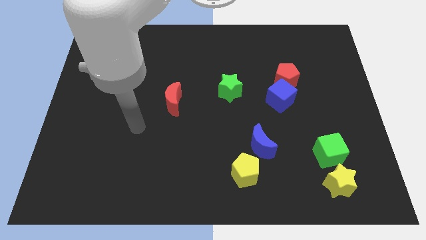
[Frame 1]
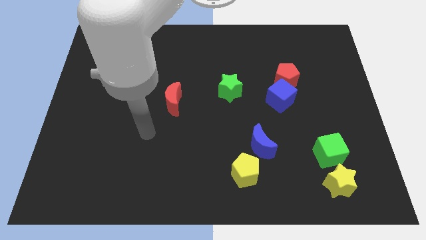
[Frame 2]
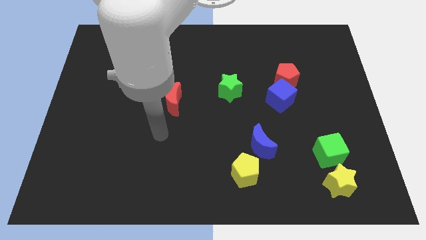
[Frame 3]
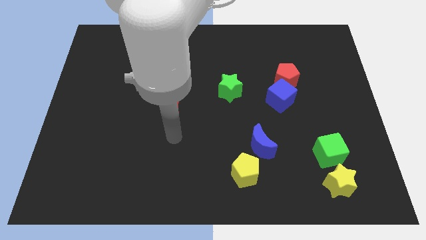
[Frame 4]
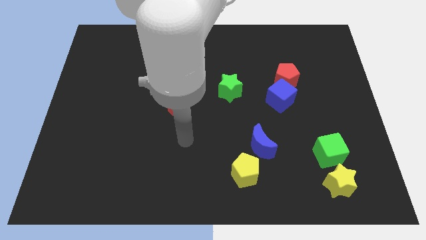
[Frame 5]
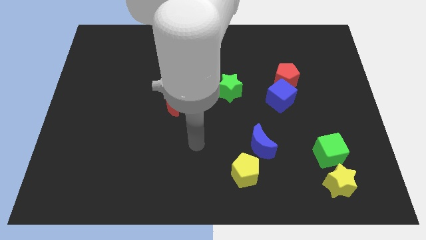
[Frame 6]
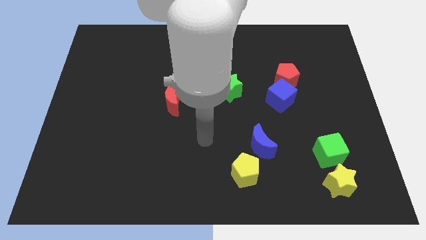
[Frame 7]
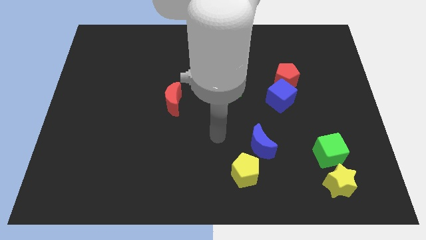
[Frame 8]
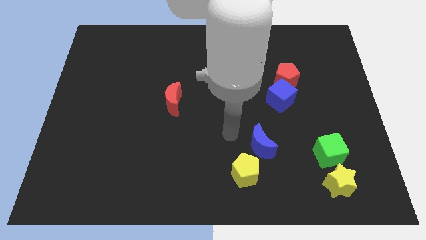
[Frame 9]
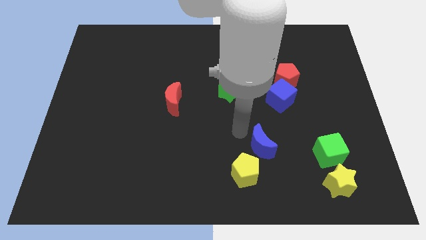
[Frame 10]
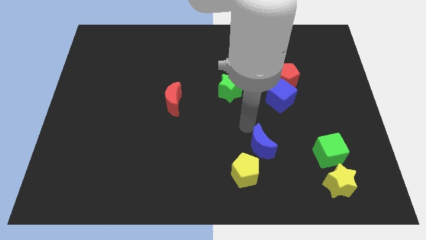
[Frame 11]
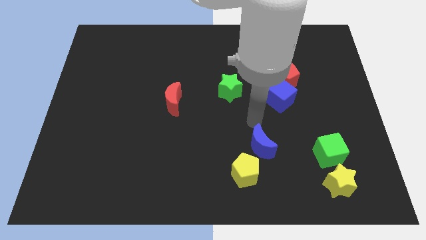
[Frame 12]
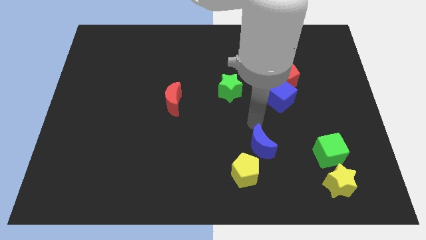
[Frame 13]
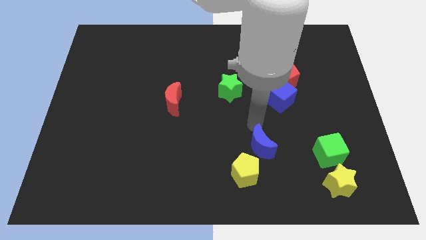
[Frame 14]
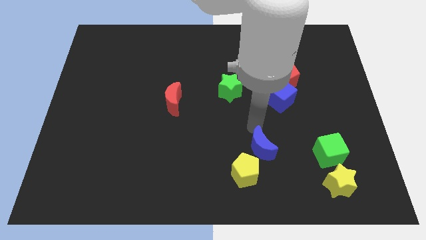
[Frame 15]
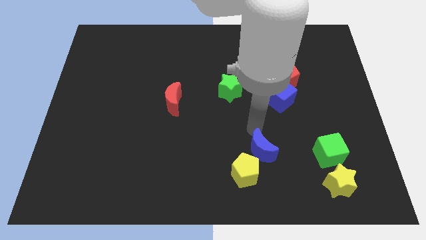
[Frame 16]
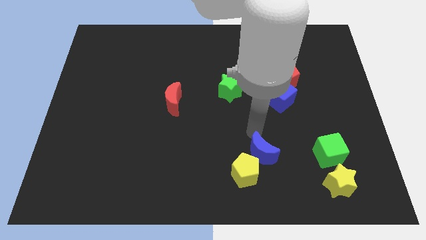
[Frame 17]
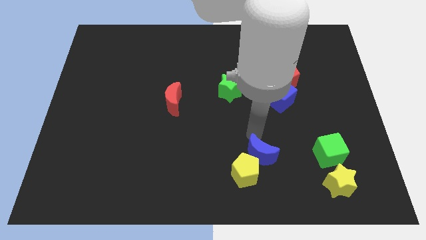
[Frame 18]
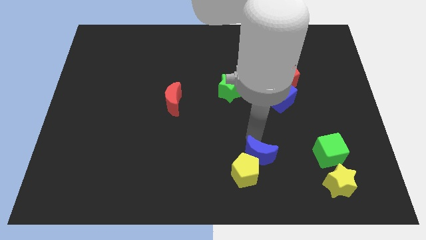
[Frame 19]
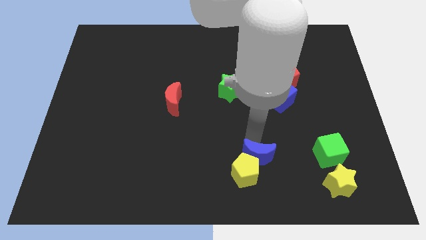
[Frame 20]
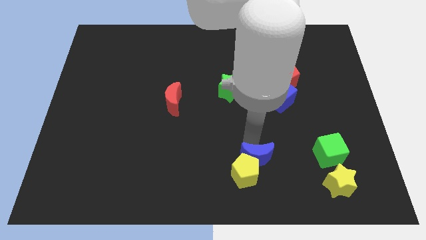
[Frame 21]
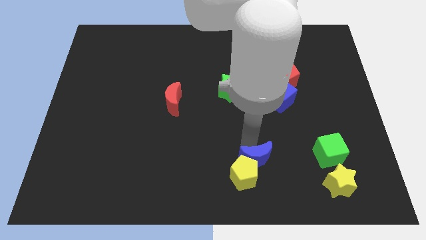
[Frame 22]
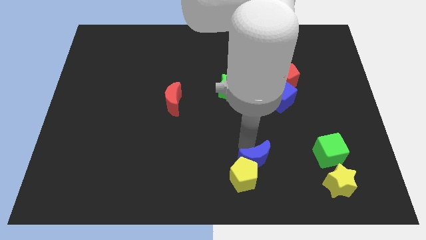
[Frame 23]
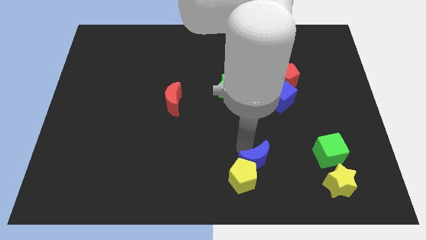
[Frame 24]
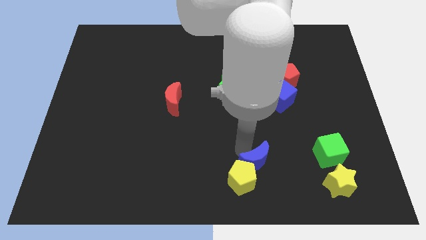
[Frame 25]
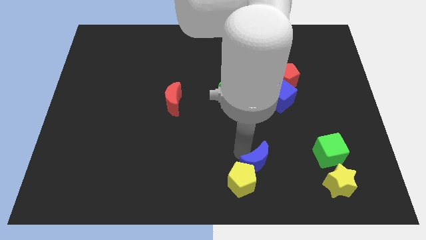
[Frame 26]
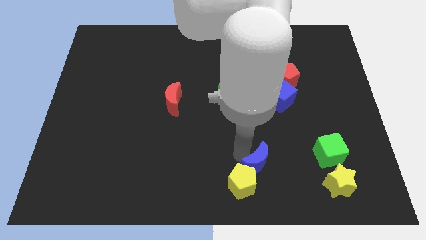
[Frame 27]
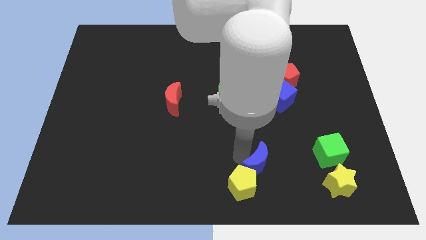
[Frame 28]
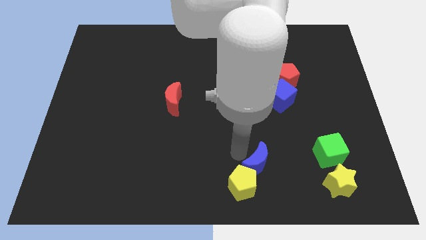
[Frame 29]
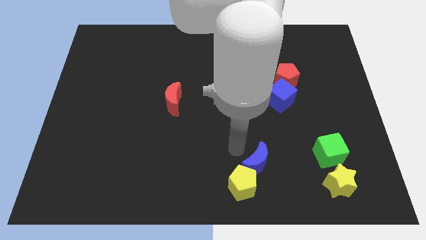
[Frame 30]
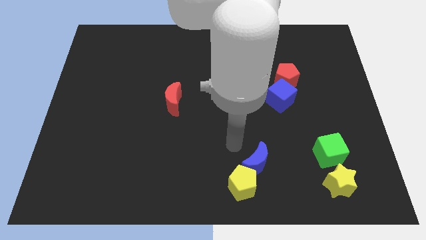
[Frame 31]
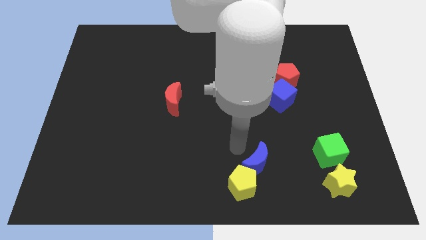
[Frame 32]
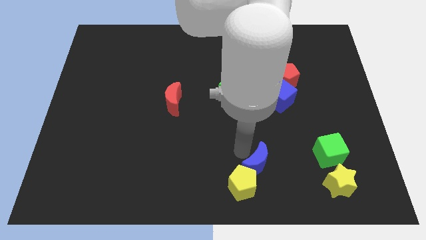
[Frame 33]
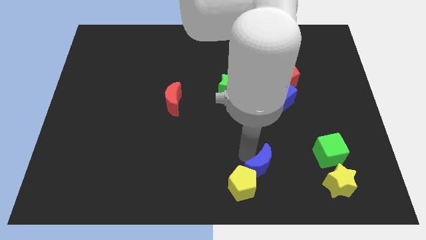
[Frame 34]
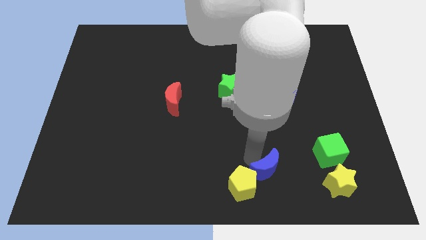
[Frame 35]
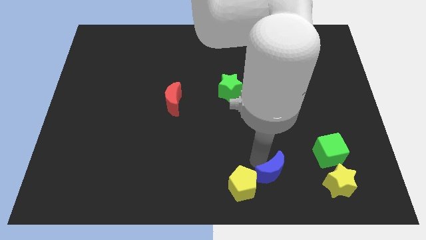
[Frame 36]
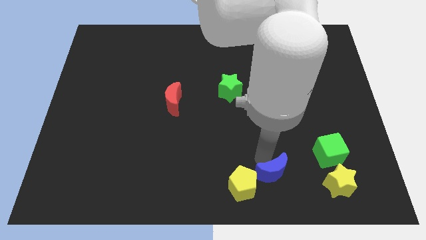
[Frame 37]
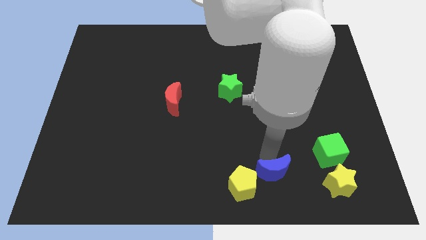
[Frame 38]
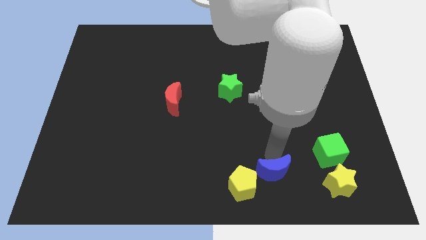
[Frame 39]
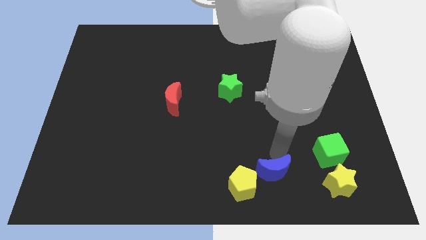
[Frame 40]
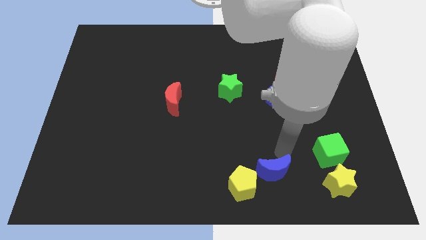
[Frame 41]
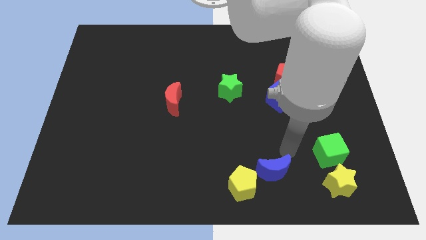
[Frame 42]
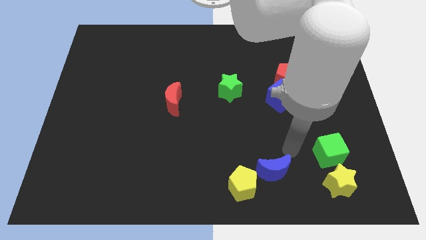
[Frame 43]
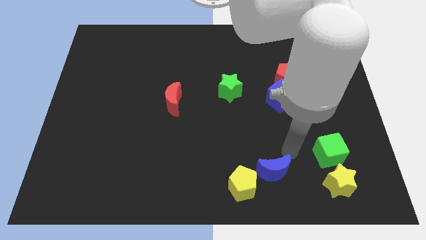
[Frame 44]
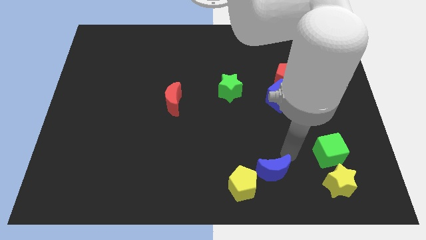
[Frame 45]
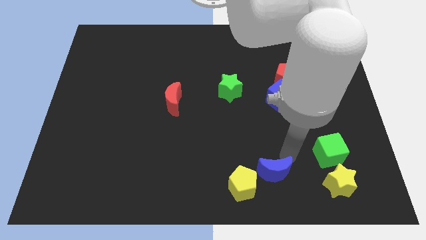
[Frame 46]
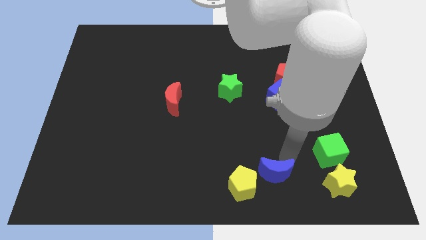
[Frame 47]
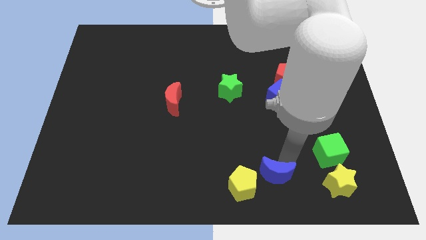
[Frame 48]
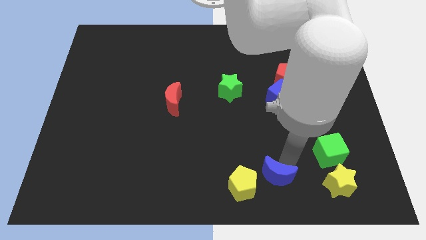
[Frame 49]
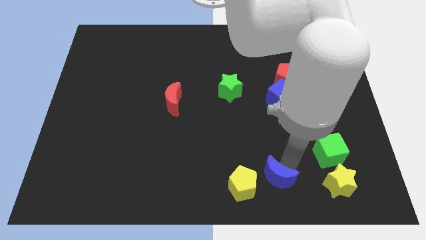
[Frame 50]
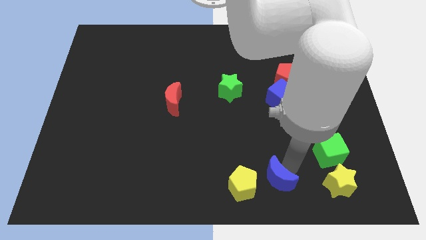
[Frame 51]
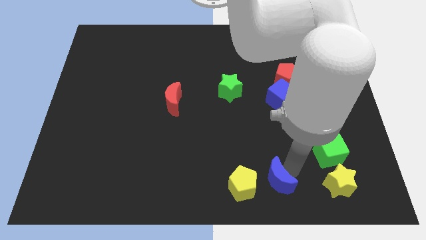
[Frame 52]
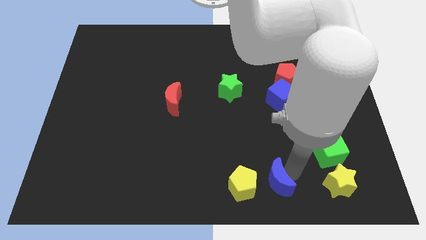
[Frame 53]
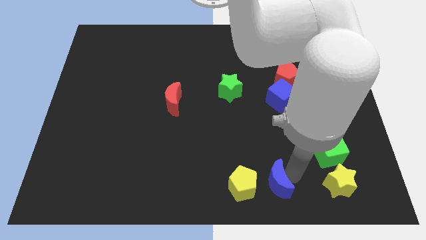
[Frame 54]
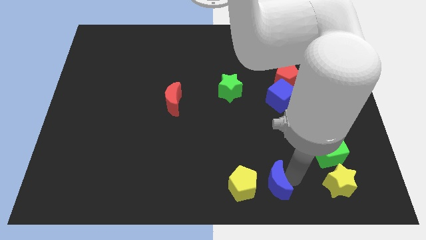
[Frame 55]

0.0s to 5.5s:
move the blue moon to the bottom side
